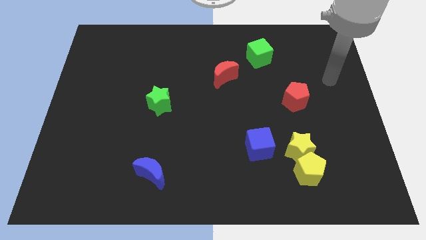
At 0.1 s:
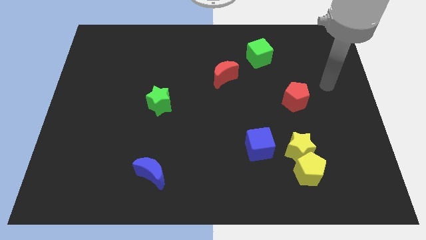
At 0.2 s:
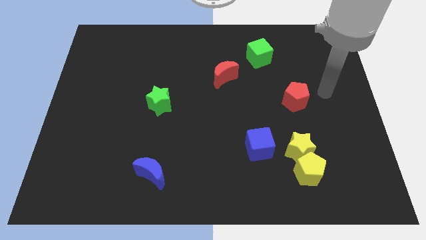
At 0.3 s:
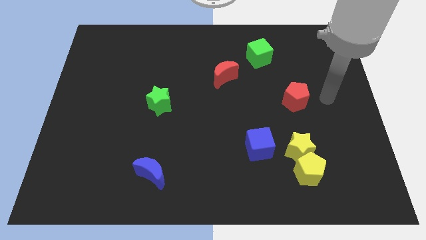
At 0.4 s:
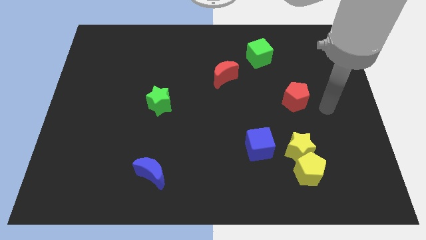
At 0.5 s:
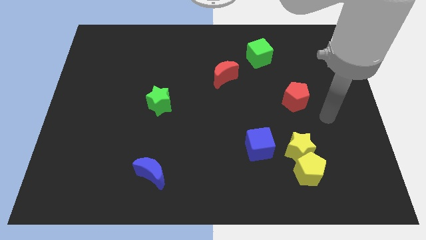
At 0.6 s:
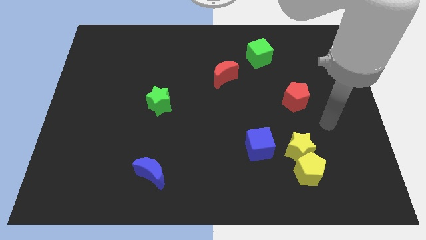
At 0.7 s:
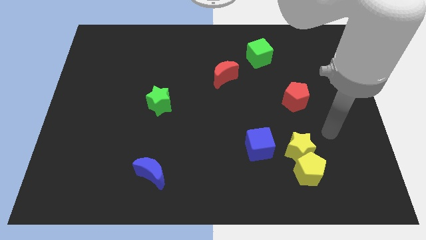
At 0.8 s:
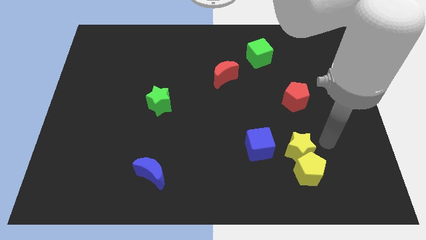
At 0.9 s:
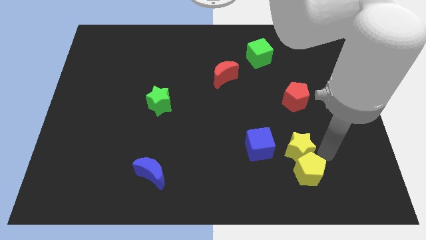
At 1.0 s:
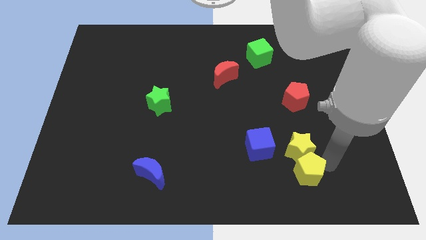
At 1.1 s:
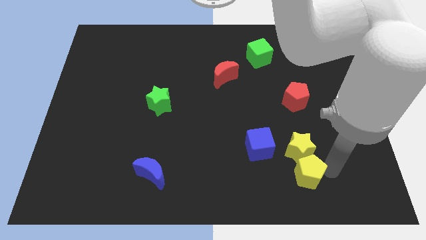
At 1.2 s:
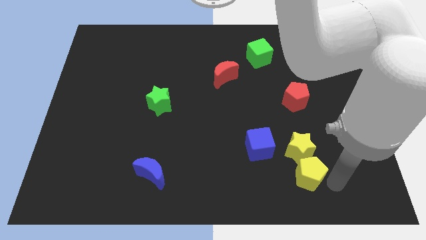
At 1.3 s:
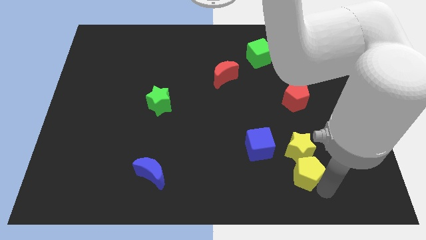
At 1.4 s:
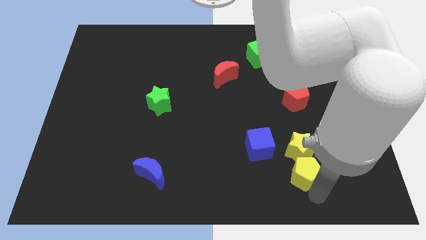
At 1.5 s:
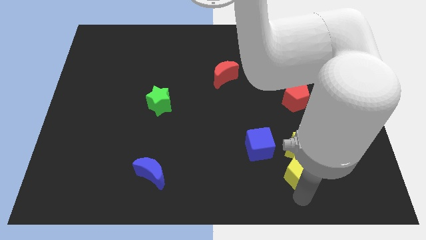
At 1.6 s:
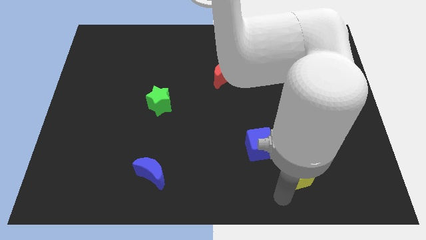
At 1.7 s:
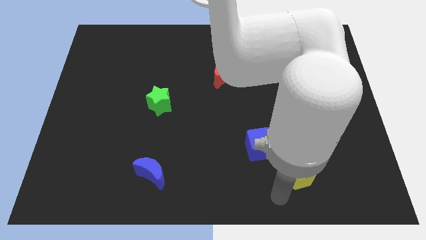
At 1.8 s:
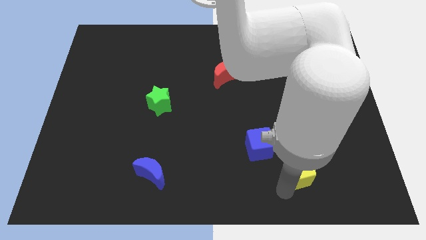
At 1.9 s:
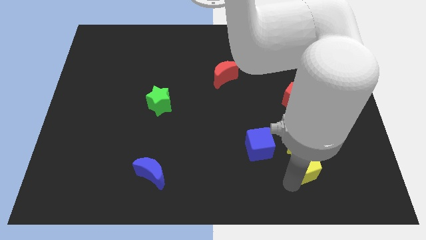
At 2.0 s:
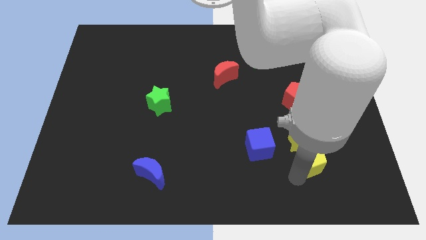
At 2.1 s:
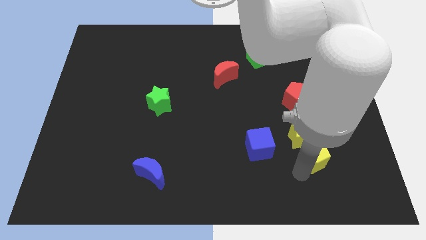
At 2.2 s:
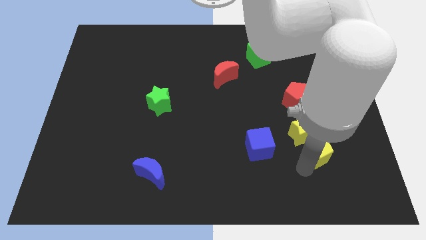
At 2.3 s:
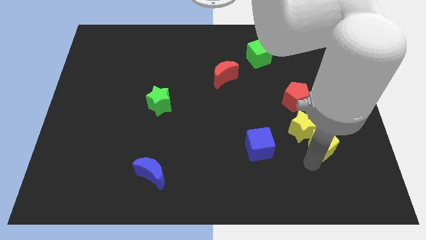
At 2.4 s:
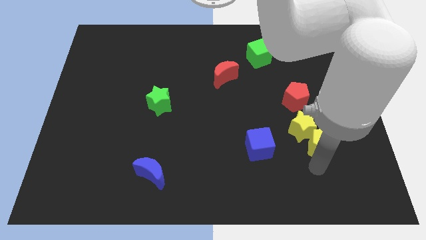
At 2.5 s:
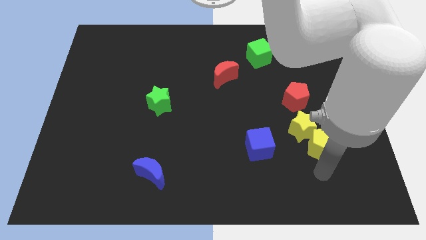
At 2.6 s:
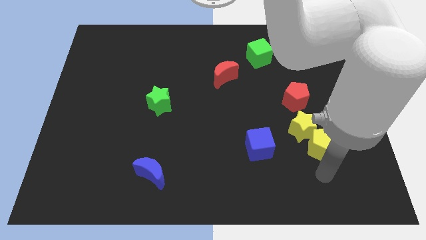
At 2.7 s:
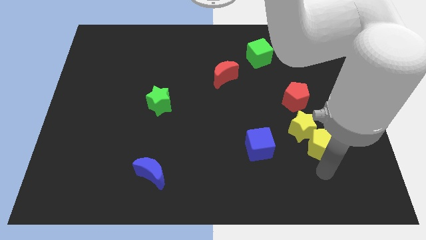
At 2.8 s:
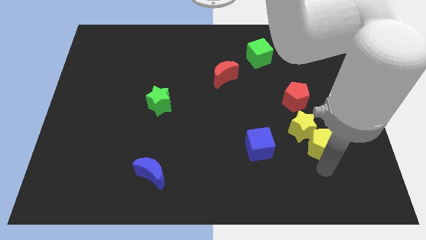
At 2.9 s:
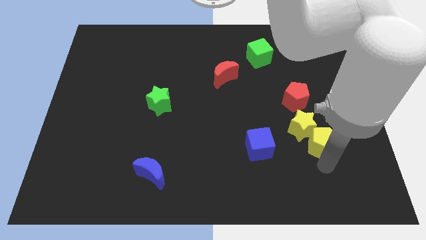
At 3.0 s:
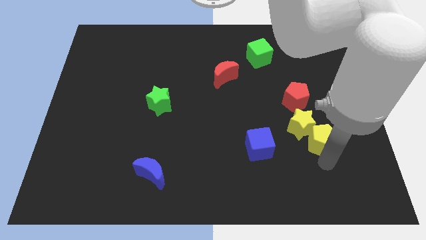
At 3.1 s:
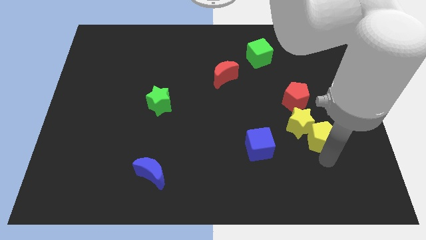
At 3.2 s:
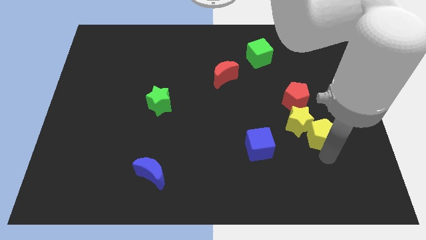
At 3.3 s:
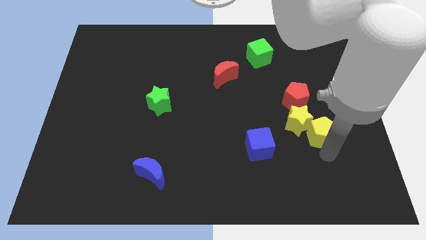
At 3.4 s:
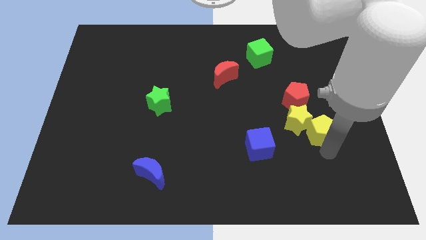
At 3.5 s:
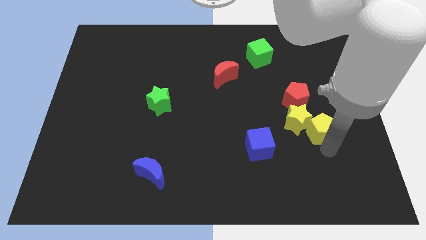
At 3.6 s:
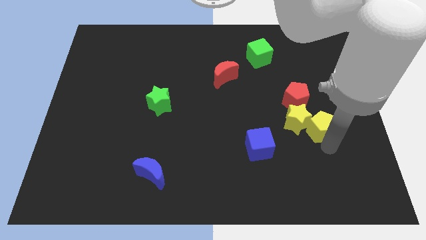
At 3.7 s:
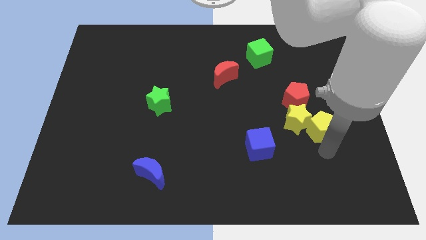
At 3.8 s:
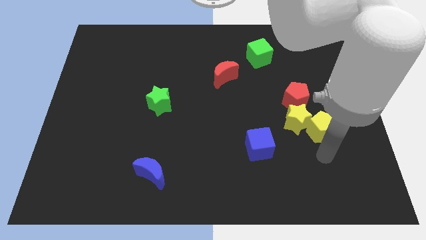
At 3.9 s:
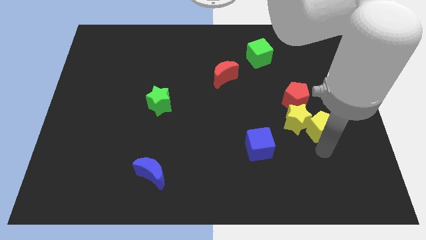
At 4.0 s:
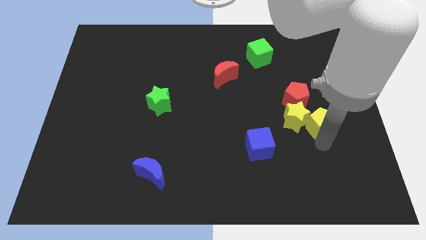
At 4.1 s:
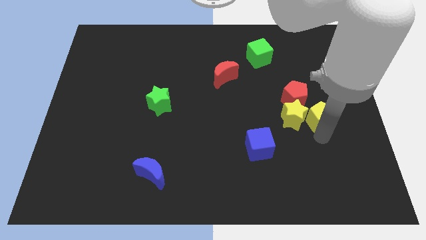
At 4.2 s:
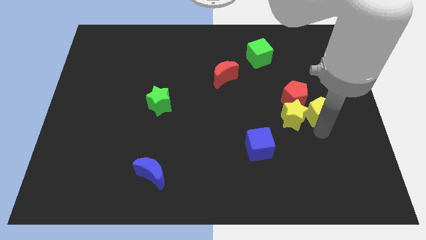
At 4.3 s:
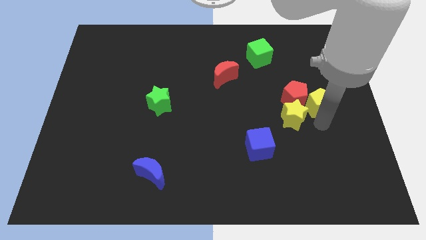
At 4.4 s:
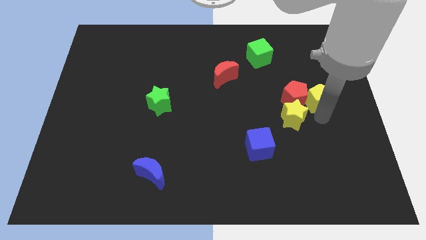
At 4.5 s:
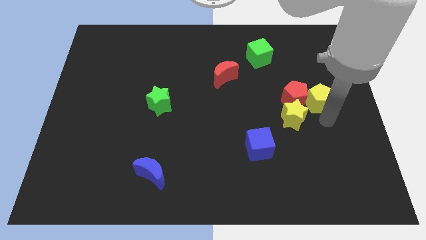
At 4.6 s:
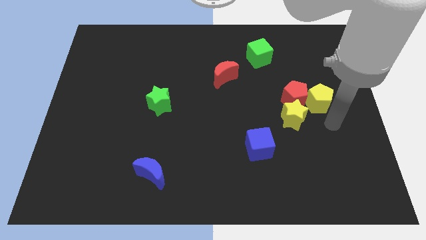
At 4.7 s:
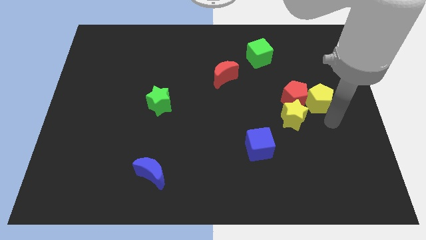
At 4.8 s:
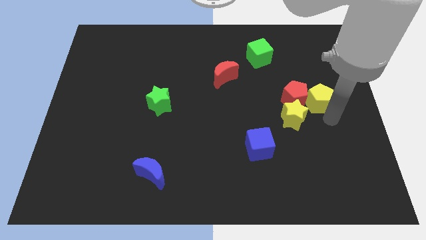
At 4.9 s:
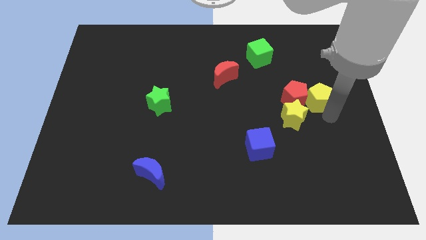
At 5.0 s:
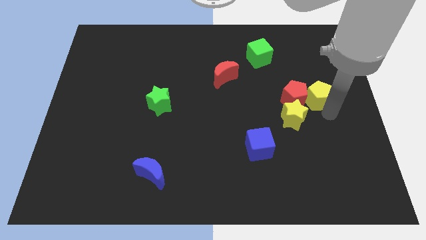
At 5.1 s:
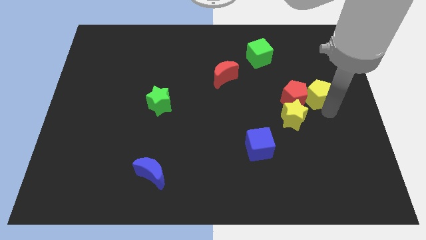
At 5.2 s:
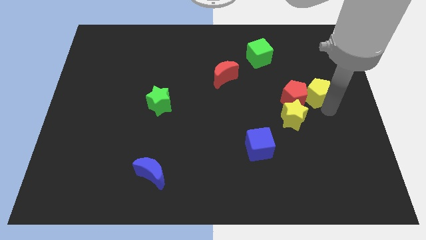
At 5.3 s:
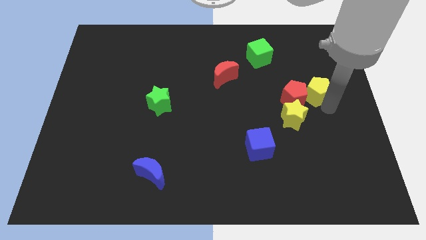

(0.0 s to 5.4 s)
slide the yellow pentagon up

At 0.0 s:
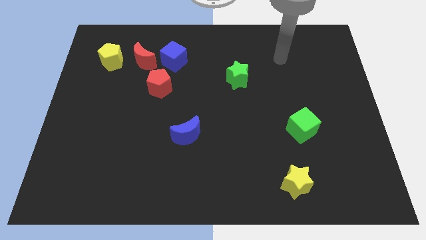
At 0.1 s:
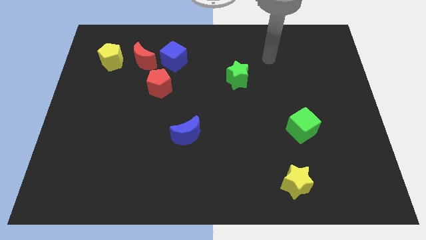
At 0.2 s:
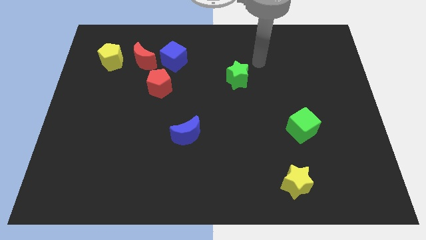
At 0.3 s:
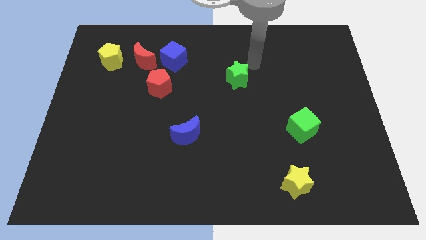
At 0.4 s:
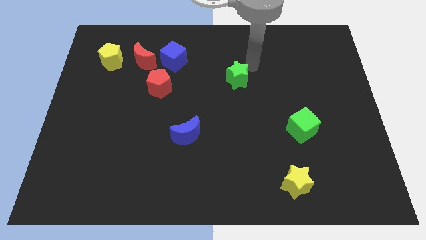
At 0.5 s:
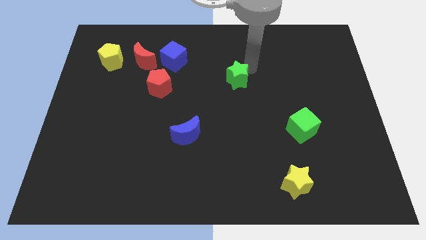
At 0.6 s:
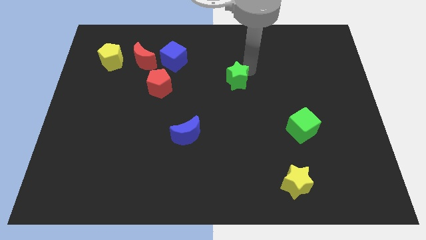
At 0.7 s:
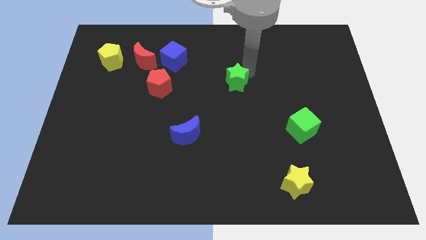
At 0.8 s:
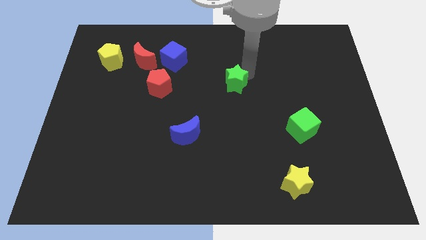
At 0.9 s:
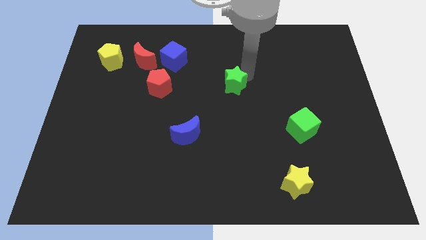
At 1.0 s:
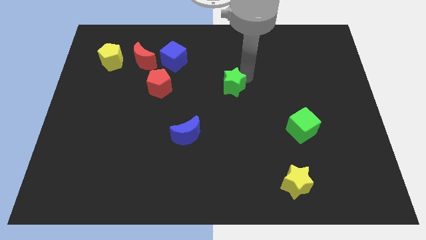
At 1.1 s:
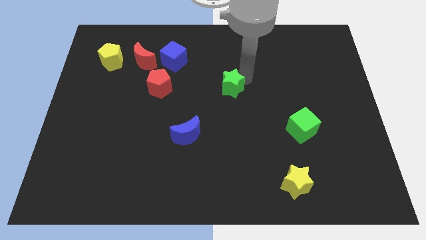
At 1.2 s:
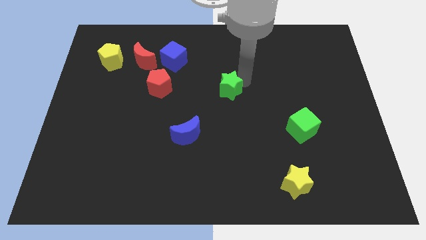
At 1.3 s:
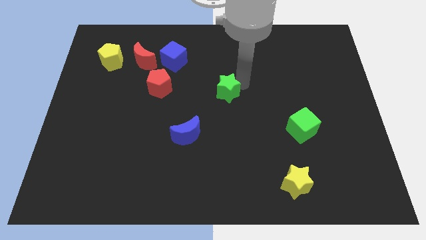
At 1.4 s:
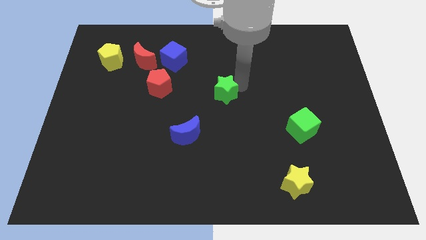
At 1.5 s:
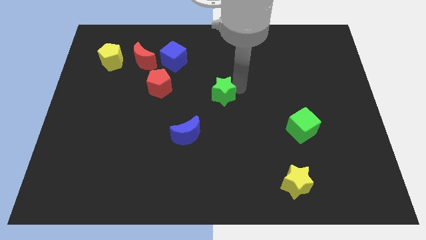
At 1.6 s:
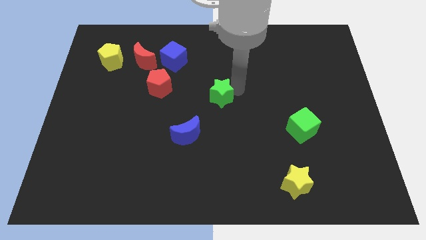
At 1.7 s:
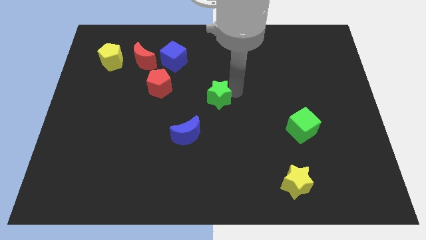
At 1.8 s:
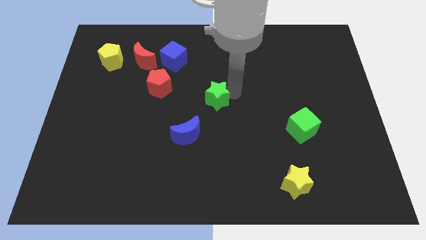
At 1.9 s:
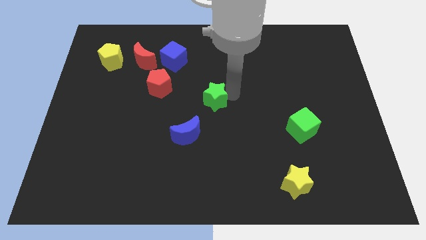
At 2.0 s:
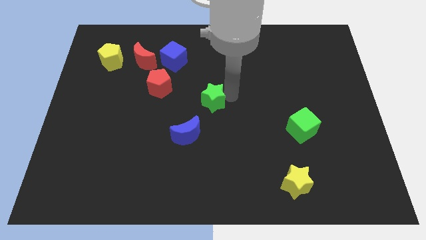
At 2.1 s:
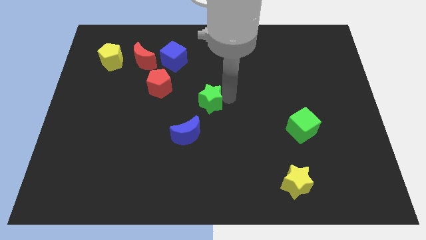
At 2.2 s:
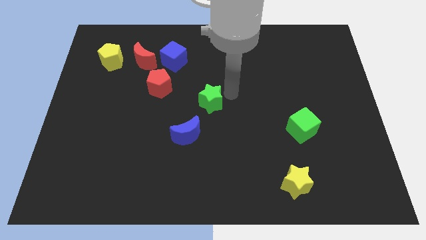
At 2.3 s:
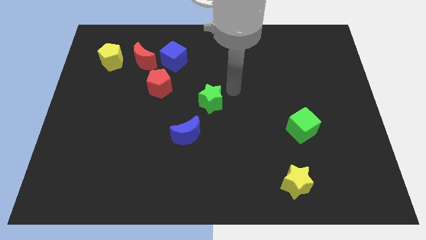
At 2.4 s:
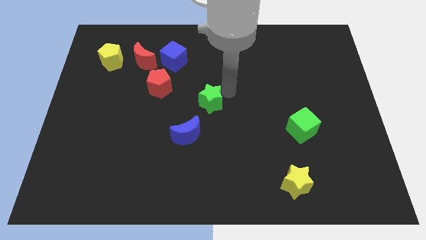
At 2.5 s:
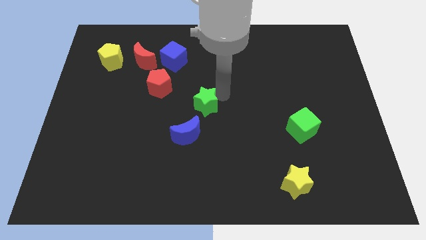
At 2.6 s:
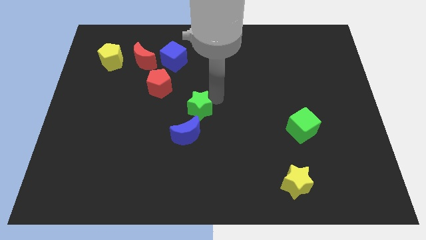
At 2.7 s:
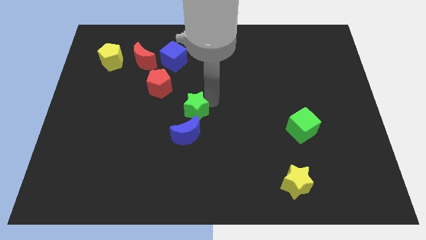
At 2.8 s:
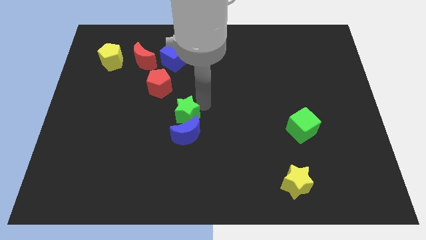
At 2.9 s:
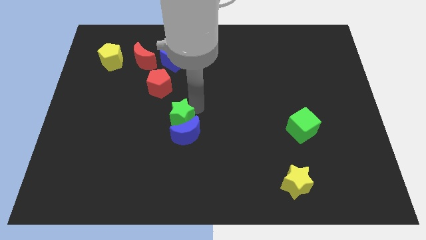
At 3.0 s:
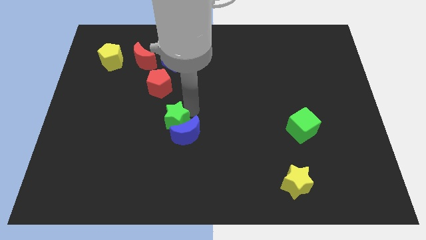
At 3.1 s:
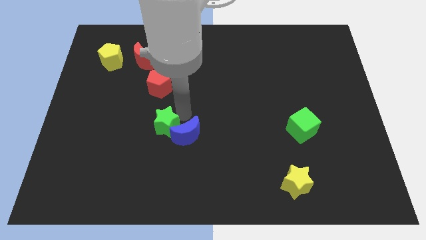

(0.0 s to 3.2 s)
push the green star downwards and left
